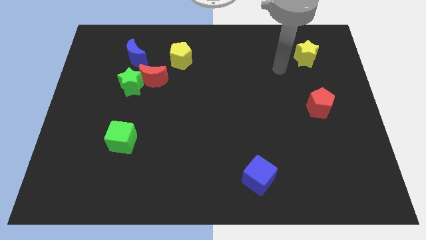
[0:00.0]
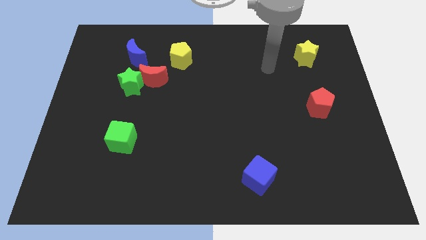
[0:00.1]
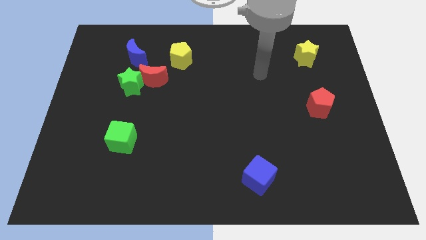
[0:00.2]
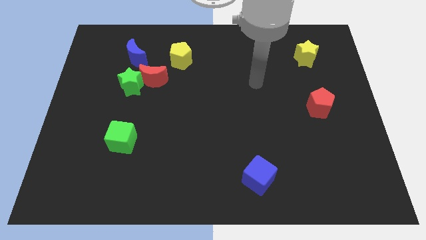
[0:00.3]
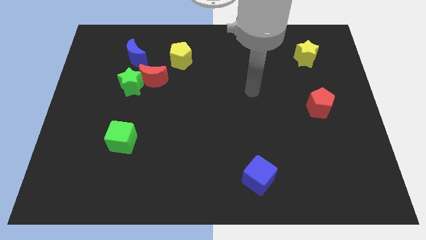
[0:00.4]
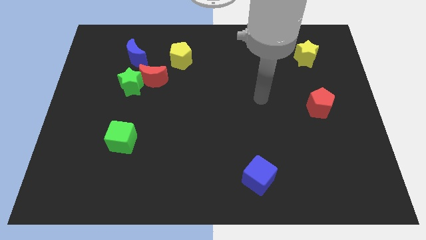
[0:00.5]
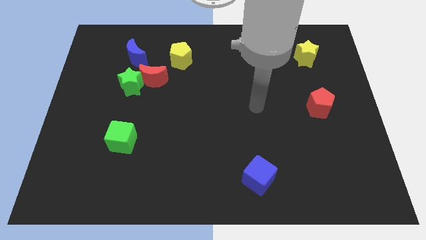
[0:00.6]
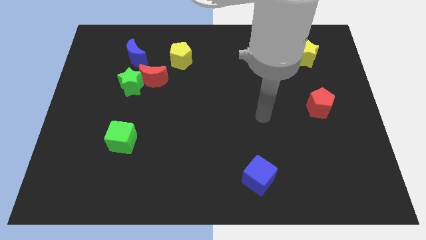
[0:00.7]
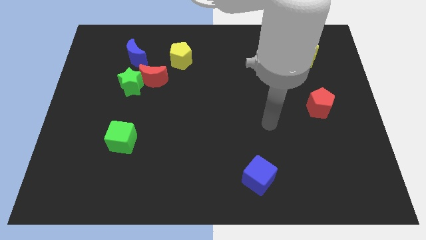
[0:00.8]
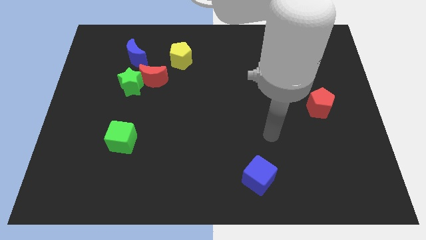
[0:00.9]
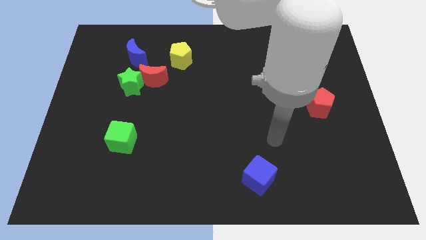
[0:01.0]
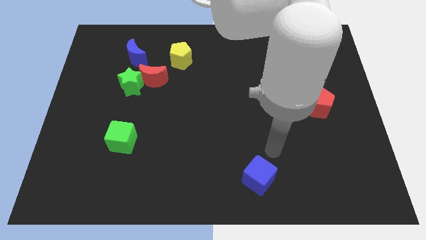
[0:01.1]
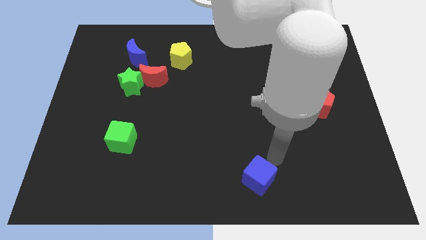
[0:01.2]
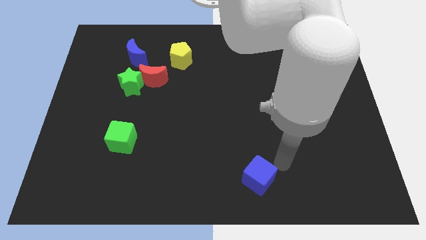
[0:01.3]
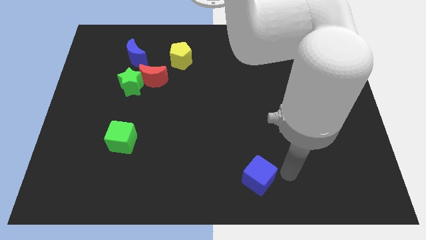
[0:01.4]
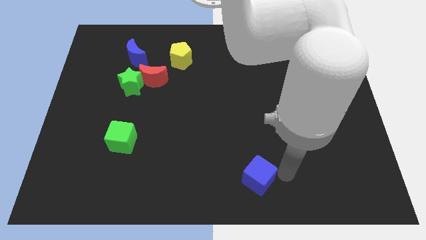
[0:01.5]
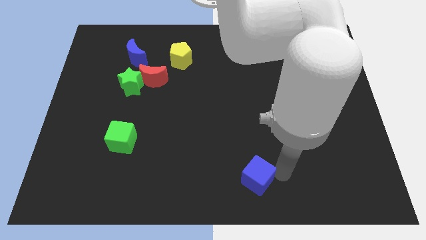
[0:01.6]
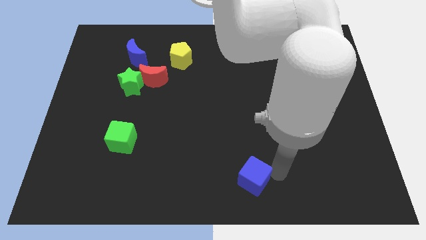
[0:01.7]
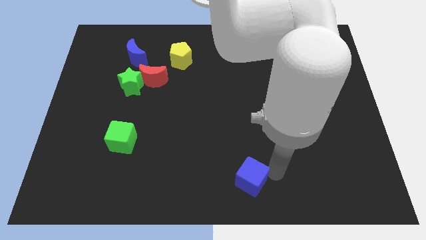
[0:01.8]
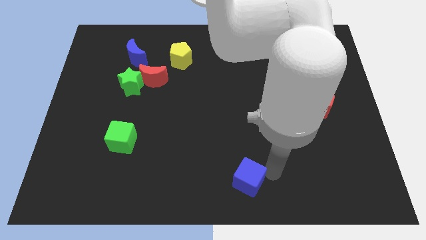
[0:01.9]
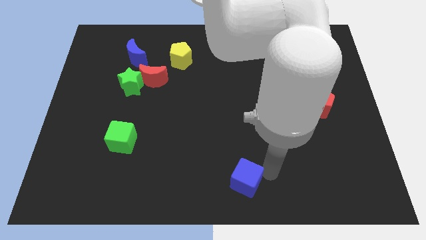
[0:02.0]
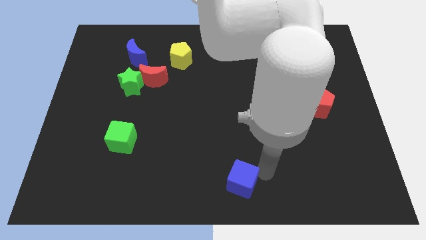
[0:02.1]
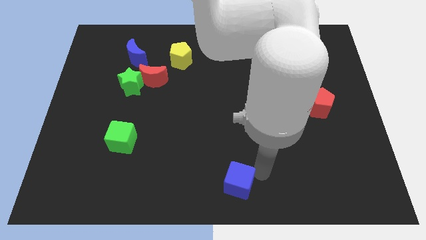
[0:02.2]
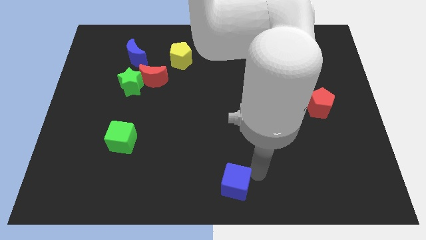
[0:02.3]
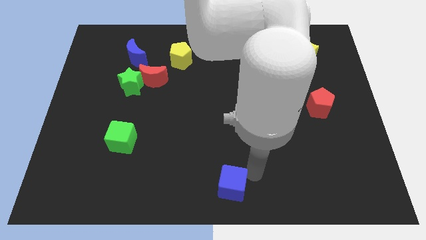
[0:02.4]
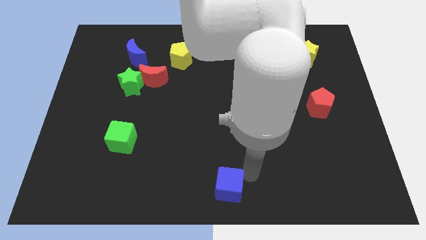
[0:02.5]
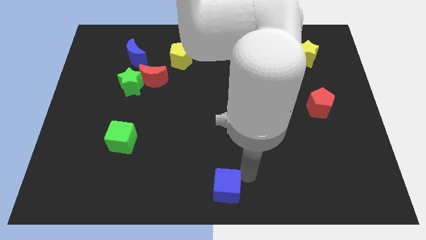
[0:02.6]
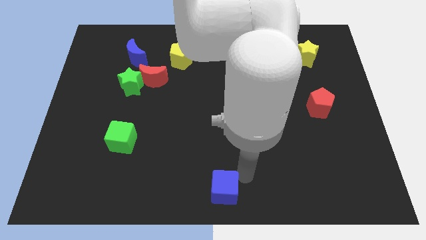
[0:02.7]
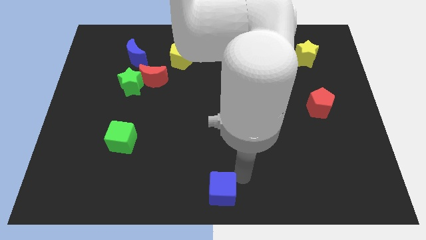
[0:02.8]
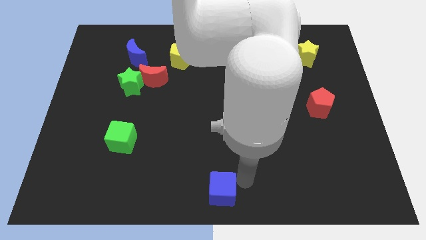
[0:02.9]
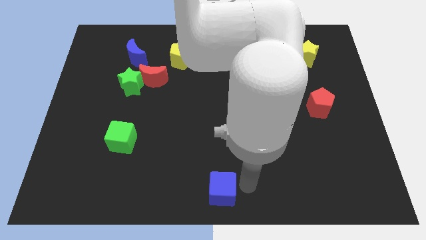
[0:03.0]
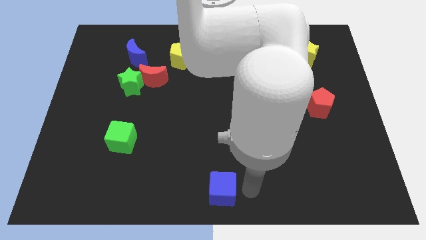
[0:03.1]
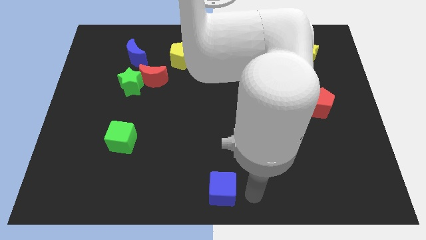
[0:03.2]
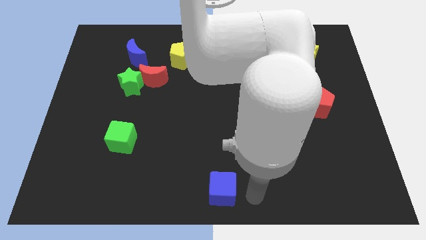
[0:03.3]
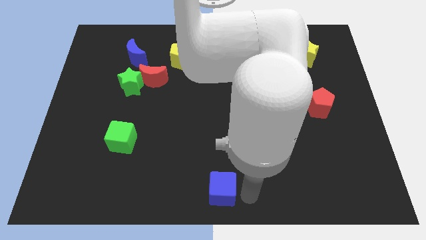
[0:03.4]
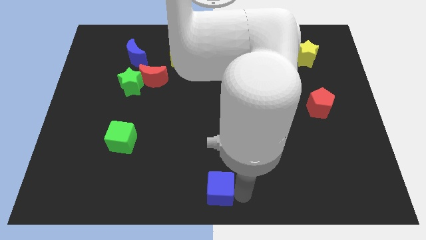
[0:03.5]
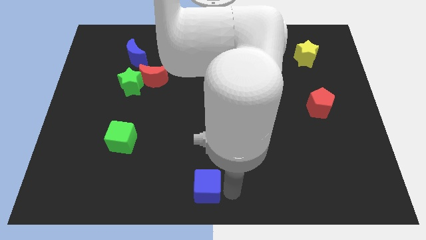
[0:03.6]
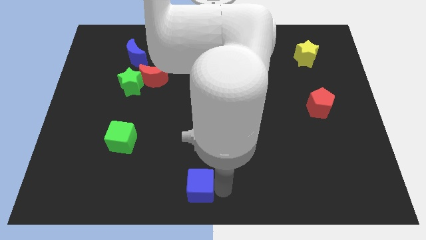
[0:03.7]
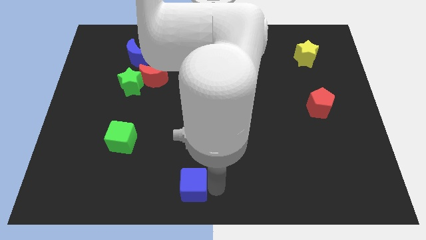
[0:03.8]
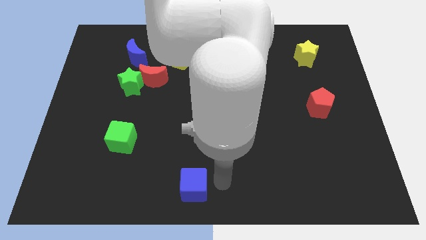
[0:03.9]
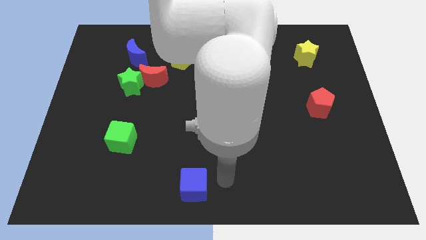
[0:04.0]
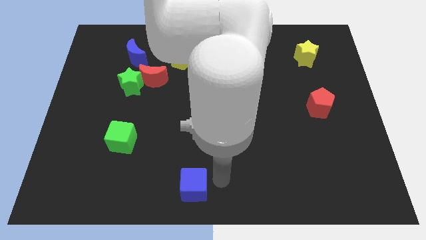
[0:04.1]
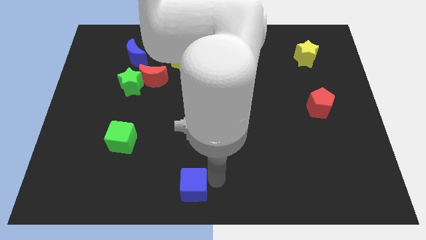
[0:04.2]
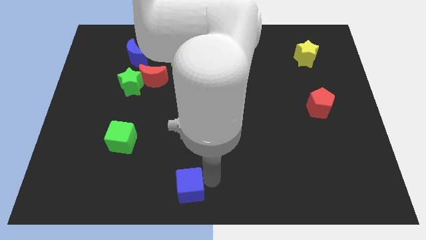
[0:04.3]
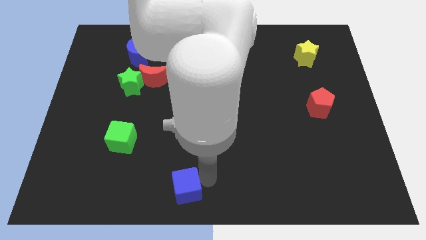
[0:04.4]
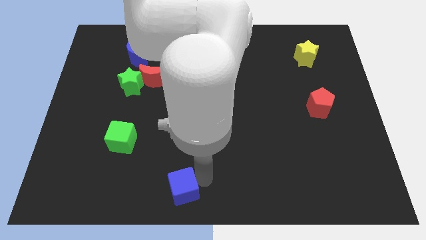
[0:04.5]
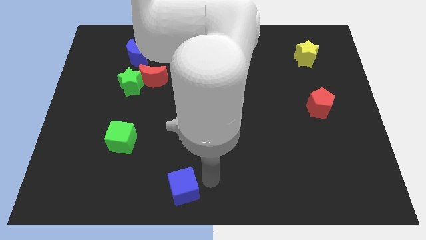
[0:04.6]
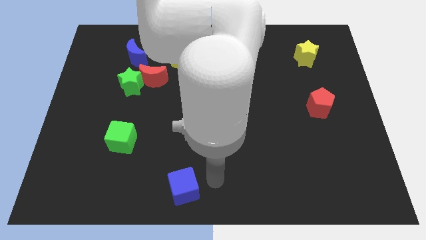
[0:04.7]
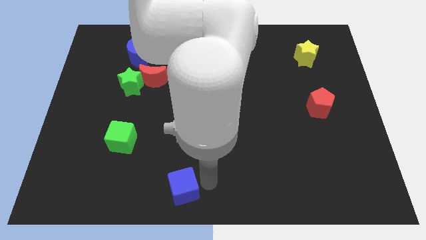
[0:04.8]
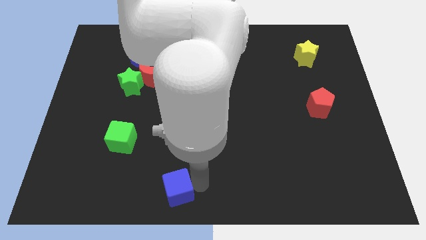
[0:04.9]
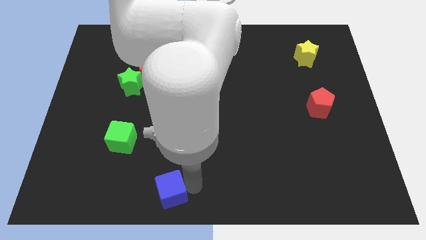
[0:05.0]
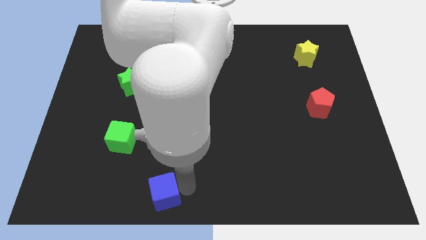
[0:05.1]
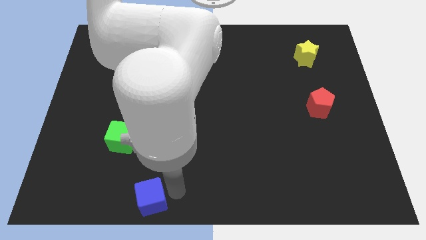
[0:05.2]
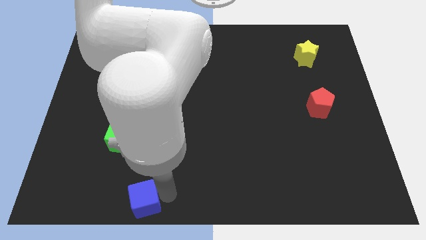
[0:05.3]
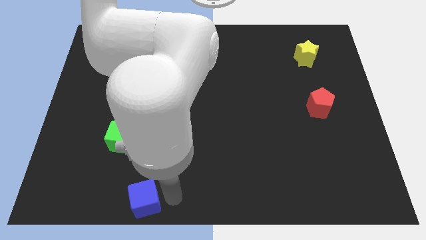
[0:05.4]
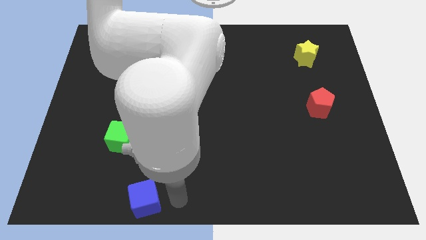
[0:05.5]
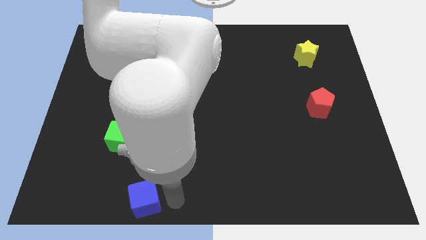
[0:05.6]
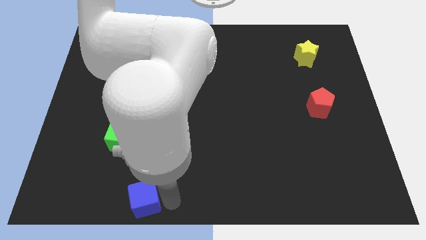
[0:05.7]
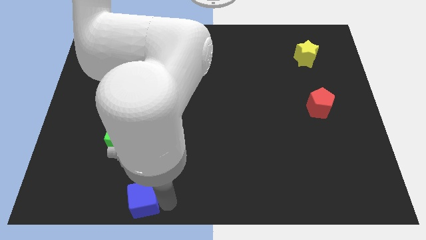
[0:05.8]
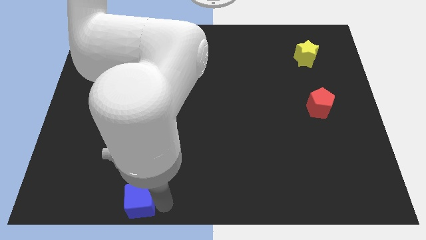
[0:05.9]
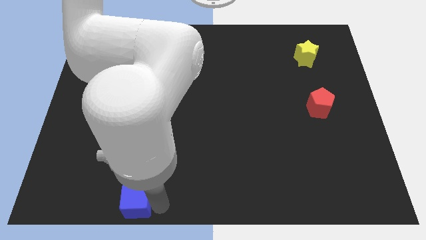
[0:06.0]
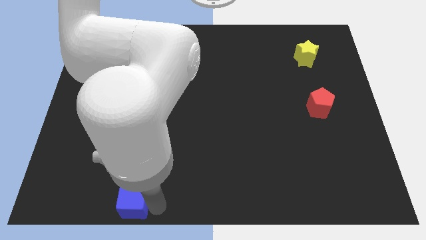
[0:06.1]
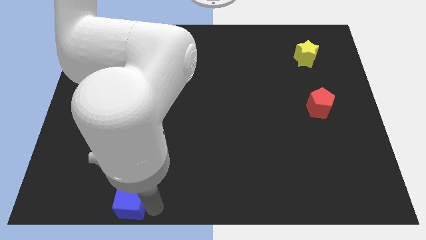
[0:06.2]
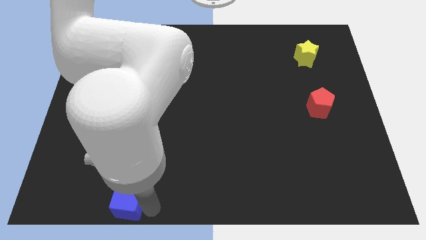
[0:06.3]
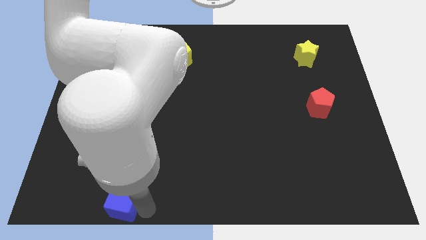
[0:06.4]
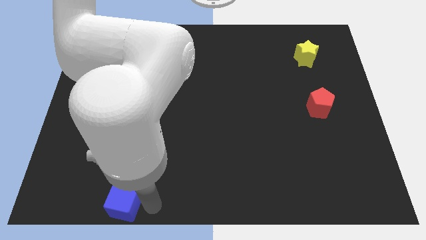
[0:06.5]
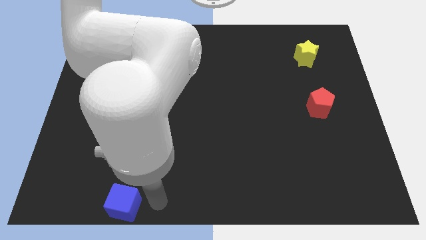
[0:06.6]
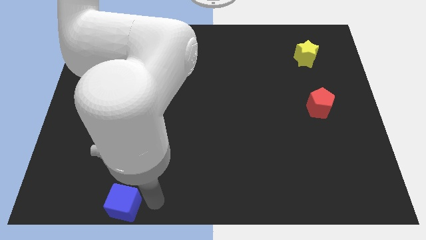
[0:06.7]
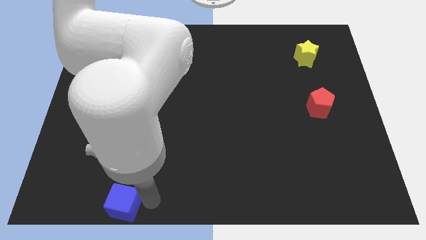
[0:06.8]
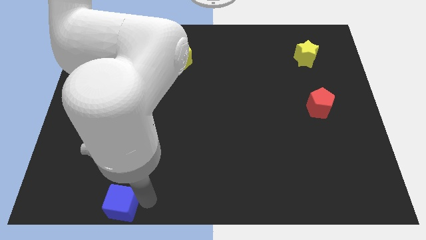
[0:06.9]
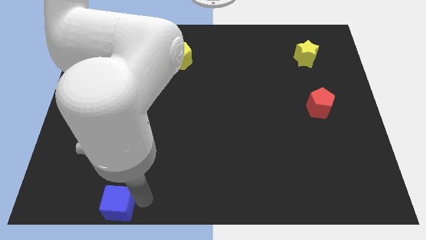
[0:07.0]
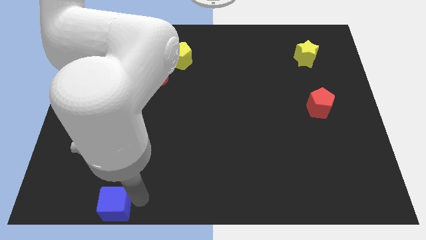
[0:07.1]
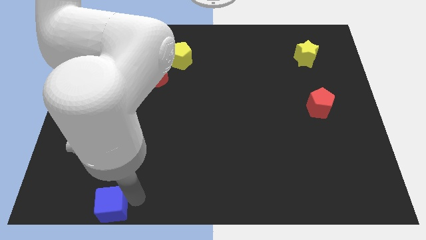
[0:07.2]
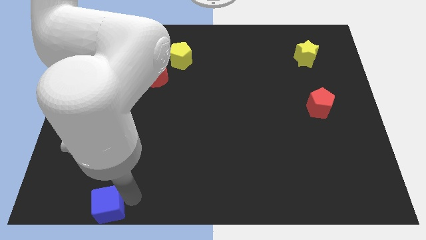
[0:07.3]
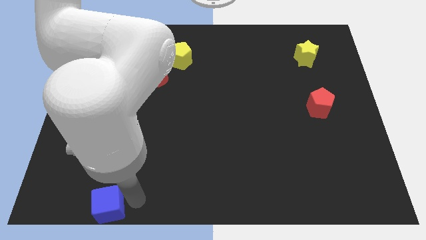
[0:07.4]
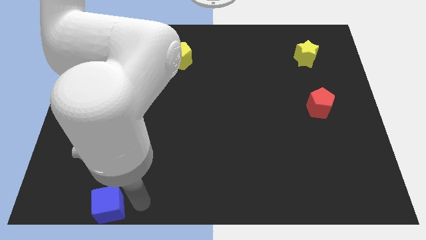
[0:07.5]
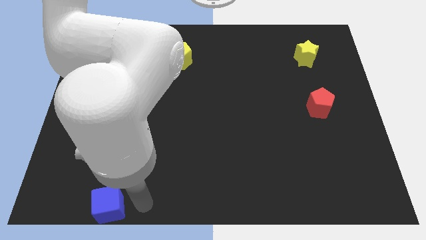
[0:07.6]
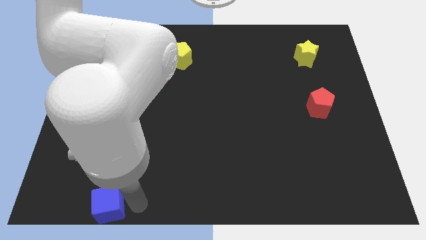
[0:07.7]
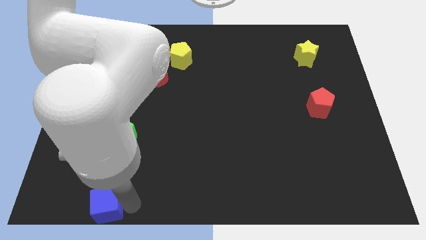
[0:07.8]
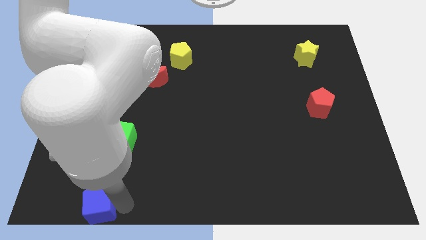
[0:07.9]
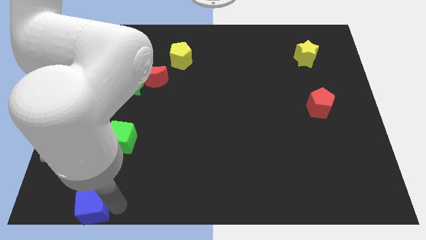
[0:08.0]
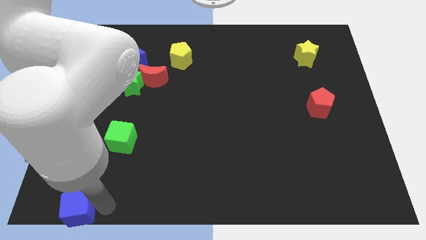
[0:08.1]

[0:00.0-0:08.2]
move the blue cube to the bottom left corner
